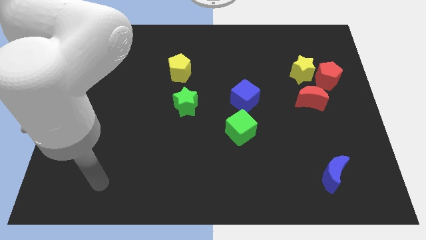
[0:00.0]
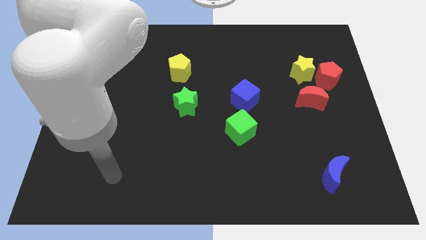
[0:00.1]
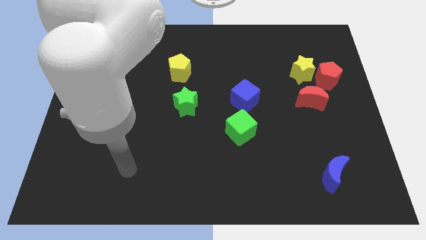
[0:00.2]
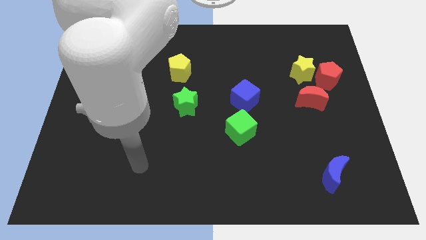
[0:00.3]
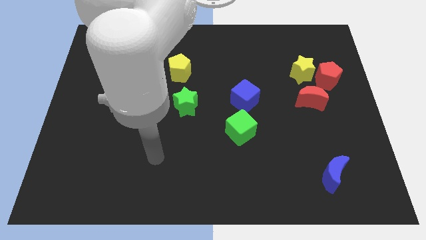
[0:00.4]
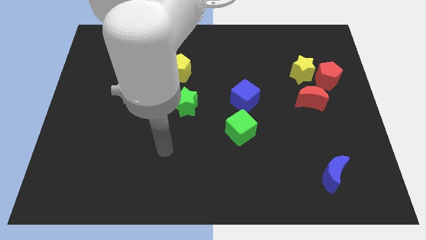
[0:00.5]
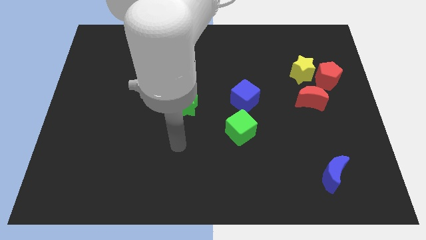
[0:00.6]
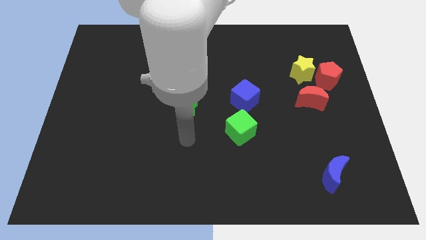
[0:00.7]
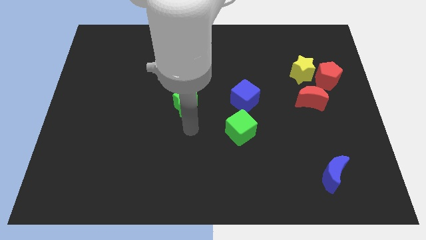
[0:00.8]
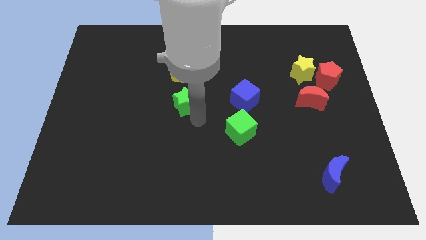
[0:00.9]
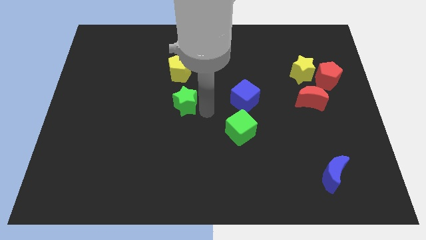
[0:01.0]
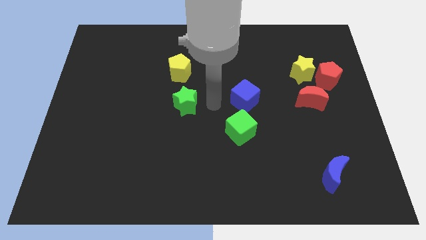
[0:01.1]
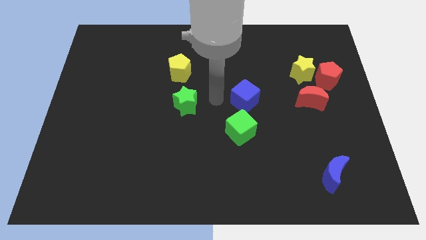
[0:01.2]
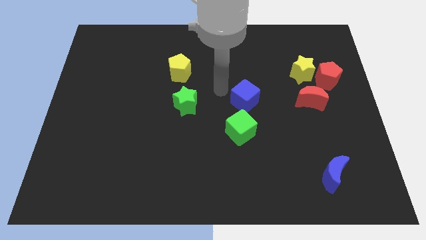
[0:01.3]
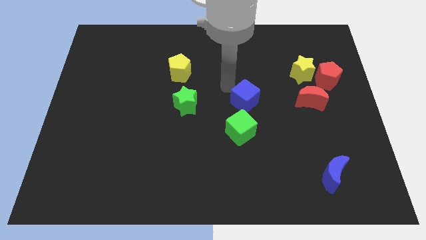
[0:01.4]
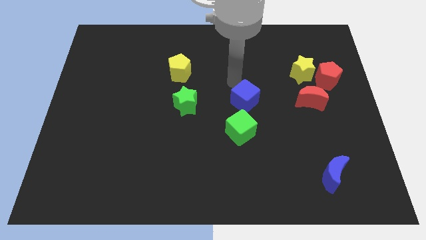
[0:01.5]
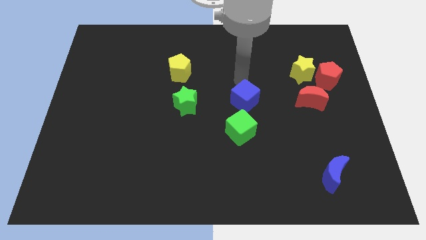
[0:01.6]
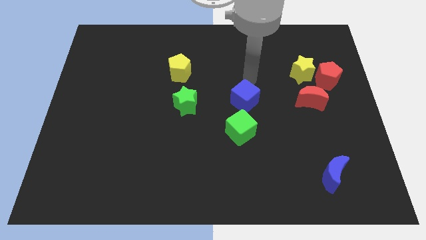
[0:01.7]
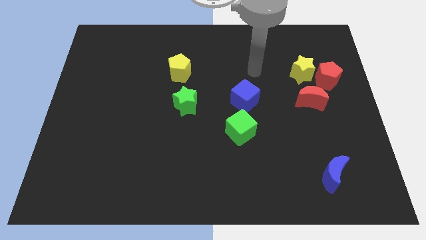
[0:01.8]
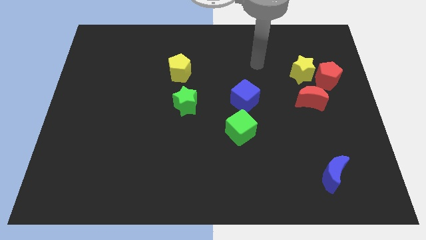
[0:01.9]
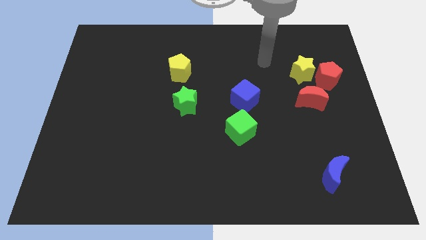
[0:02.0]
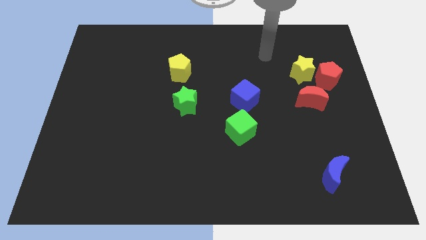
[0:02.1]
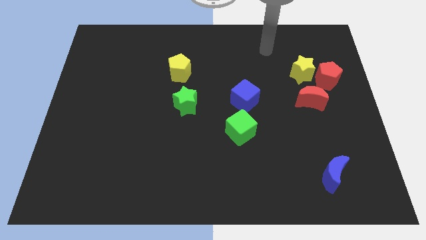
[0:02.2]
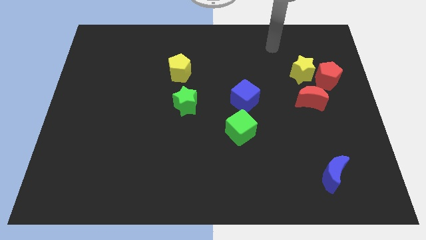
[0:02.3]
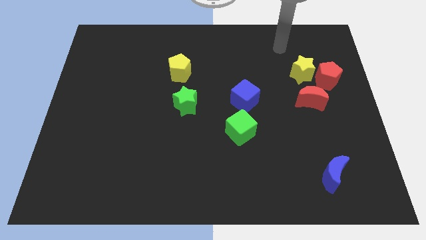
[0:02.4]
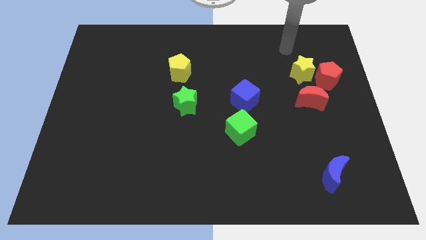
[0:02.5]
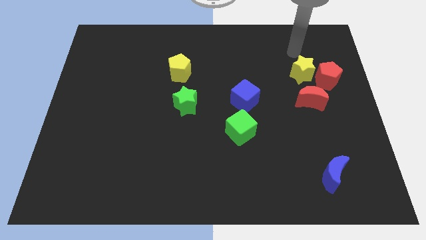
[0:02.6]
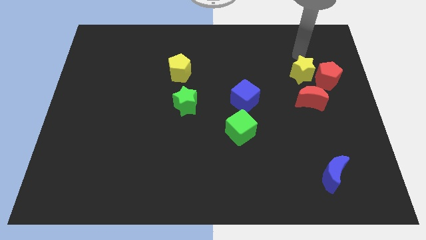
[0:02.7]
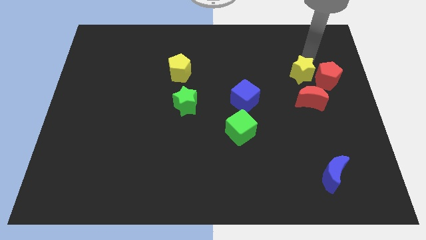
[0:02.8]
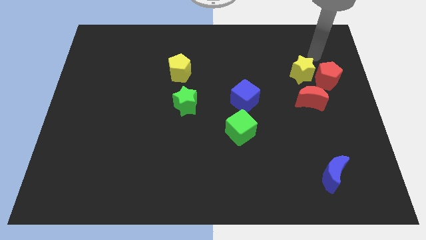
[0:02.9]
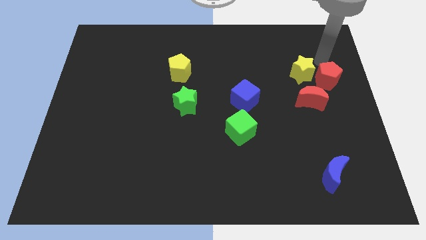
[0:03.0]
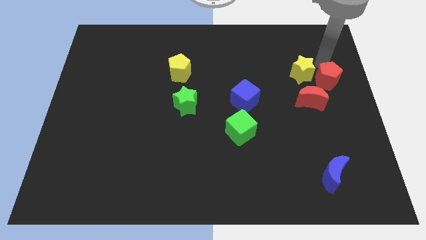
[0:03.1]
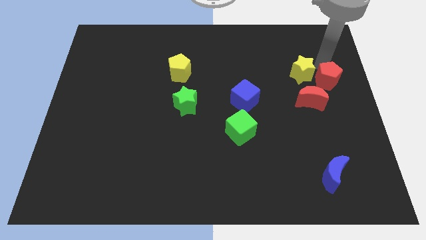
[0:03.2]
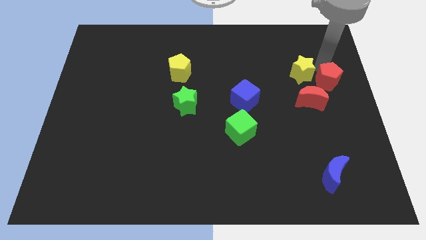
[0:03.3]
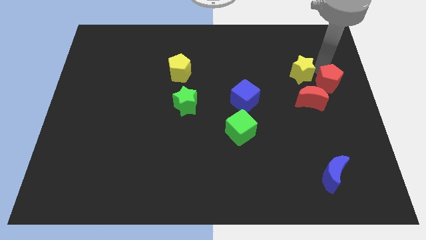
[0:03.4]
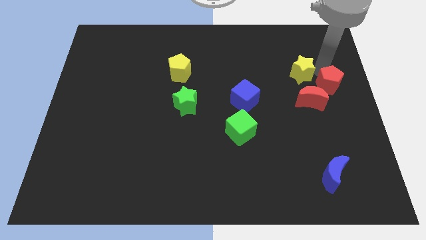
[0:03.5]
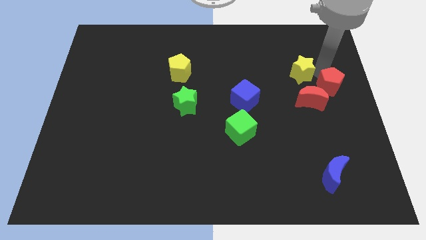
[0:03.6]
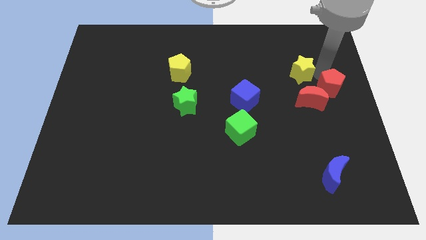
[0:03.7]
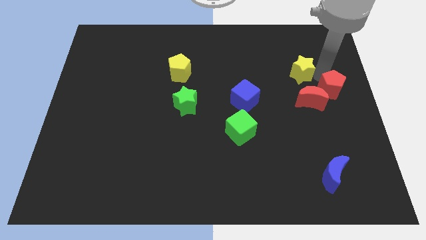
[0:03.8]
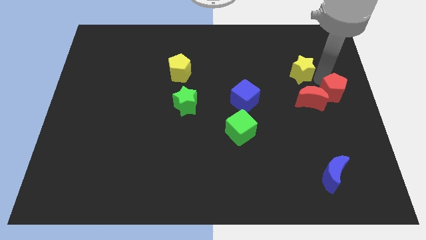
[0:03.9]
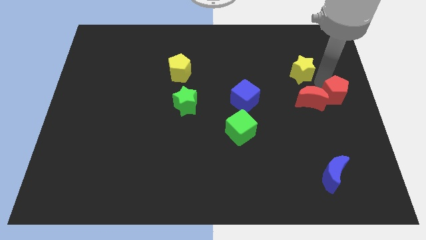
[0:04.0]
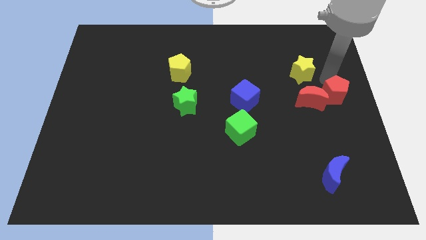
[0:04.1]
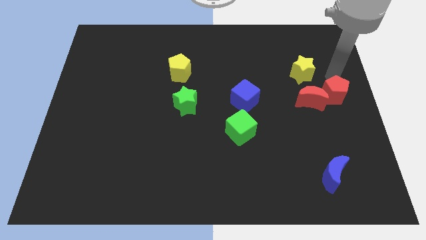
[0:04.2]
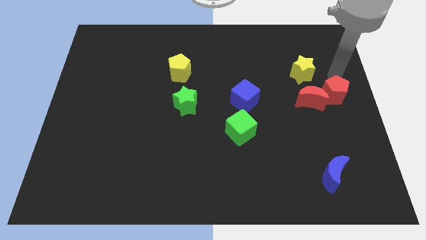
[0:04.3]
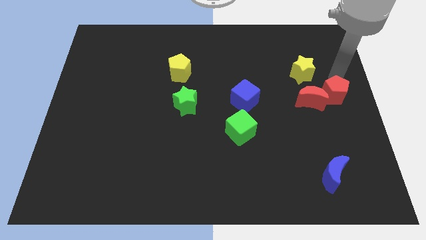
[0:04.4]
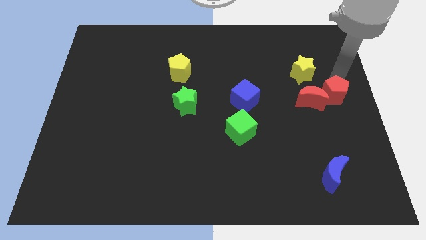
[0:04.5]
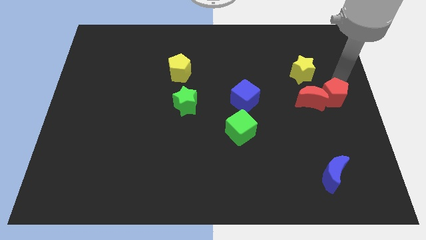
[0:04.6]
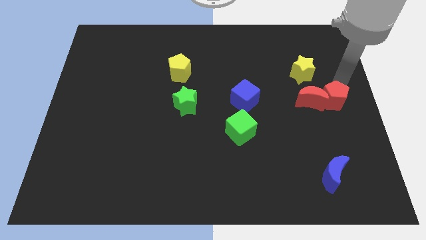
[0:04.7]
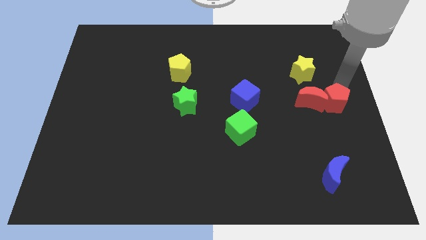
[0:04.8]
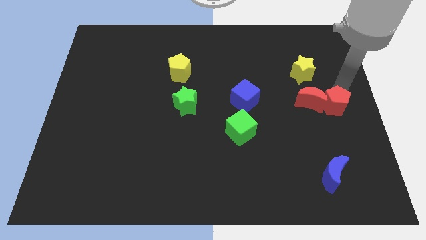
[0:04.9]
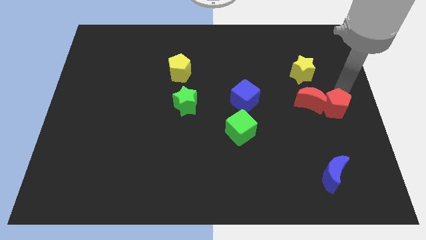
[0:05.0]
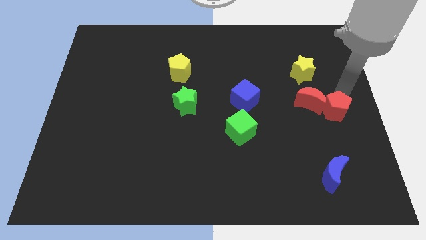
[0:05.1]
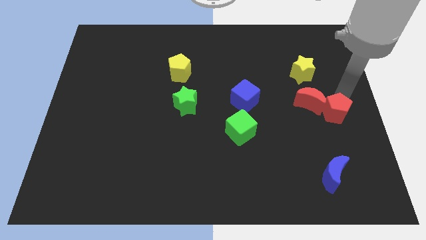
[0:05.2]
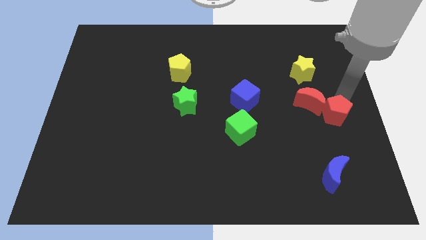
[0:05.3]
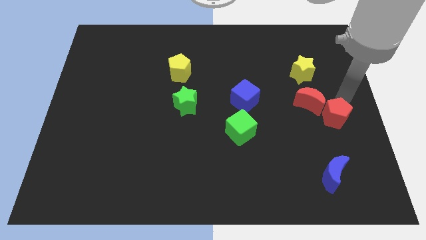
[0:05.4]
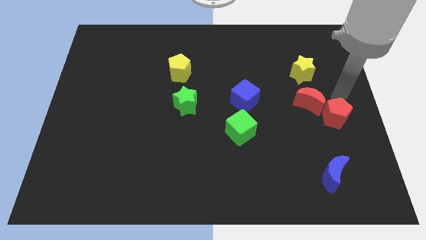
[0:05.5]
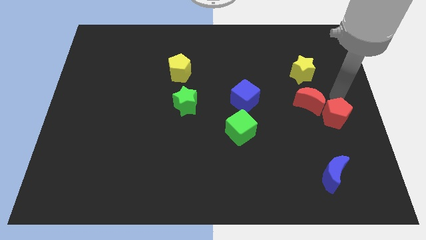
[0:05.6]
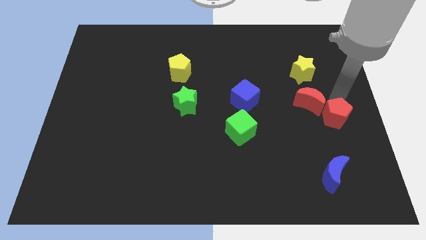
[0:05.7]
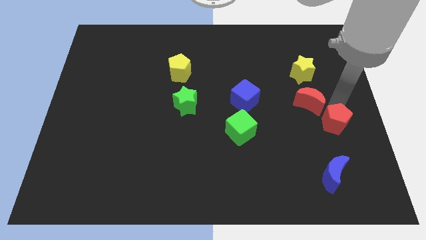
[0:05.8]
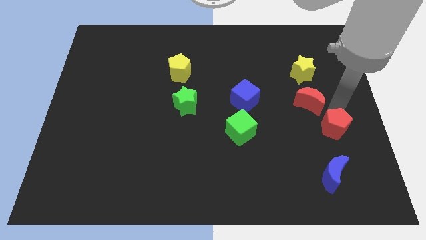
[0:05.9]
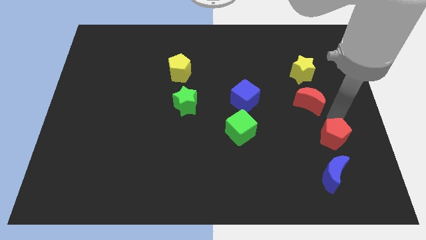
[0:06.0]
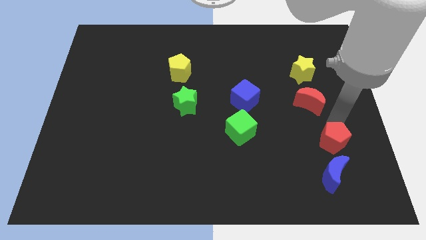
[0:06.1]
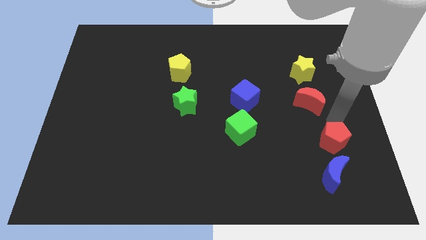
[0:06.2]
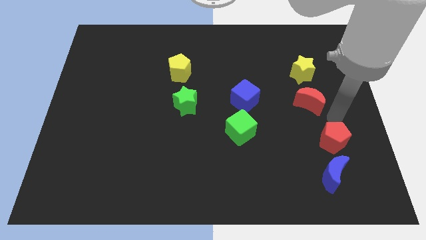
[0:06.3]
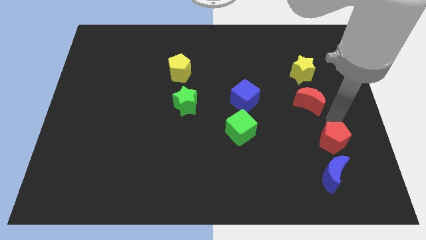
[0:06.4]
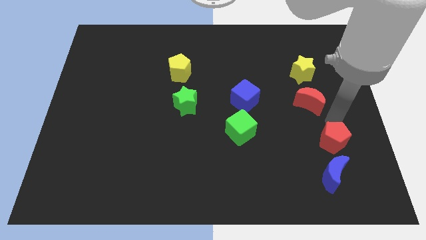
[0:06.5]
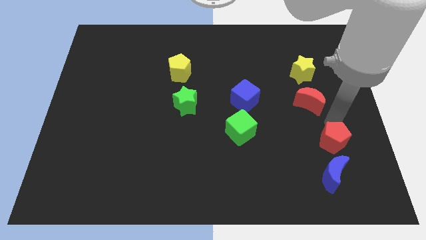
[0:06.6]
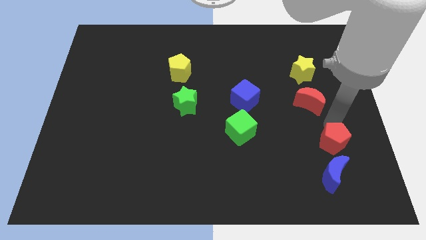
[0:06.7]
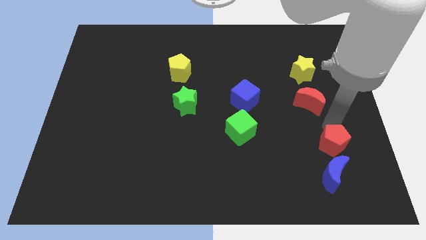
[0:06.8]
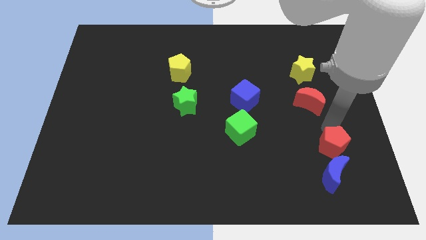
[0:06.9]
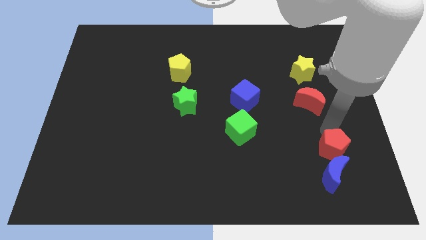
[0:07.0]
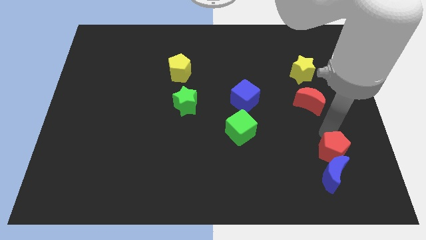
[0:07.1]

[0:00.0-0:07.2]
put the red pentagon to the blue moon
